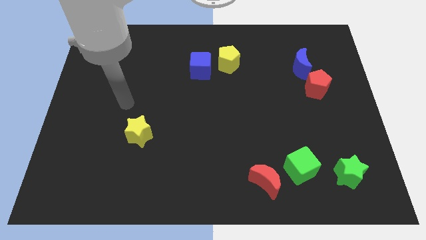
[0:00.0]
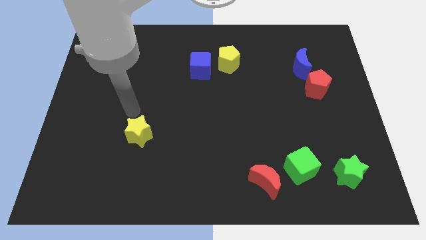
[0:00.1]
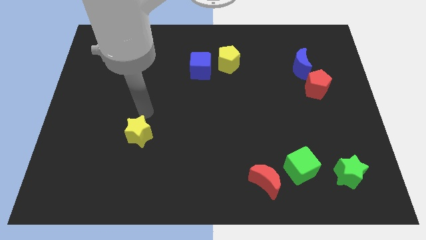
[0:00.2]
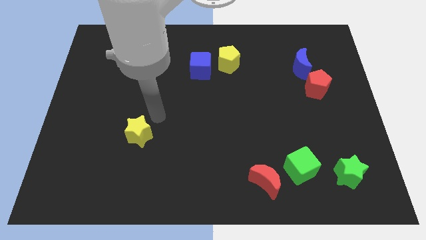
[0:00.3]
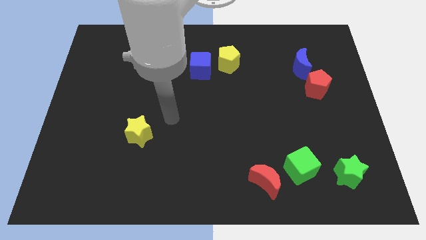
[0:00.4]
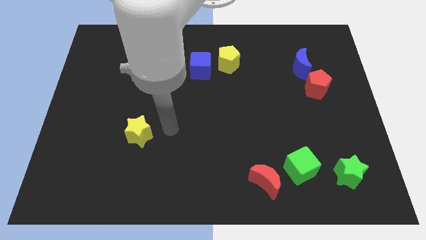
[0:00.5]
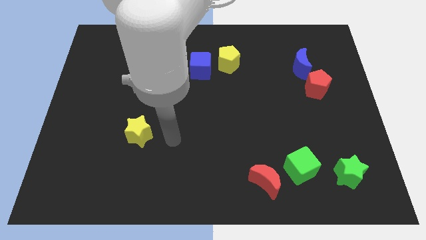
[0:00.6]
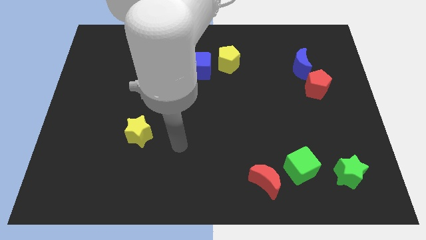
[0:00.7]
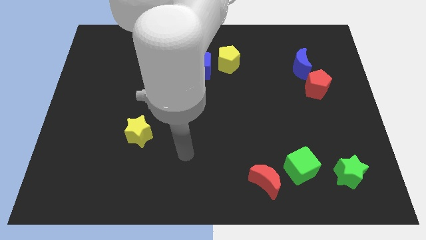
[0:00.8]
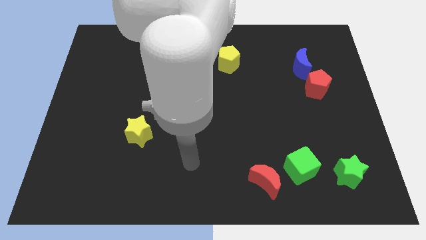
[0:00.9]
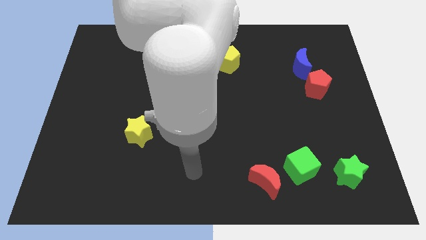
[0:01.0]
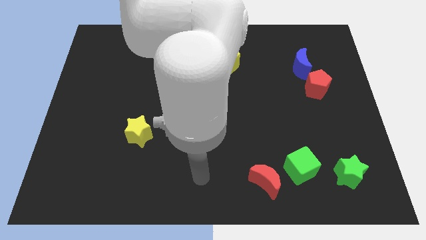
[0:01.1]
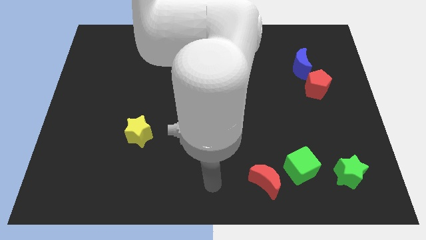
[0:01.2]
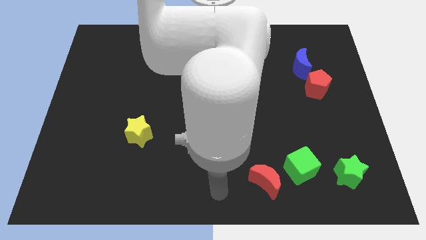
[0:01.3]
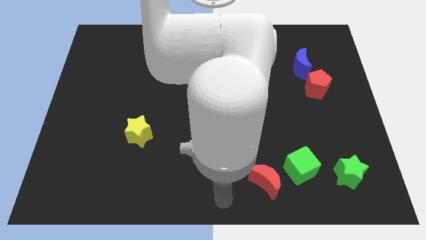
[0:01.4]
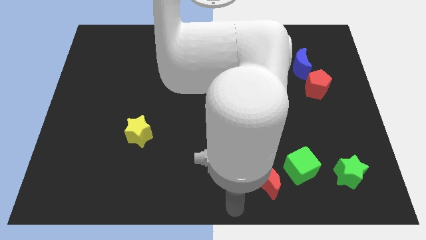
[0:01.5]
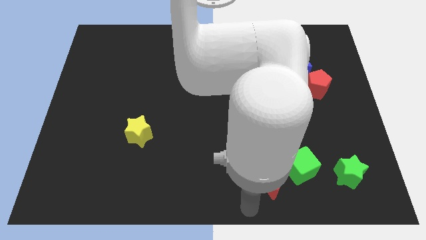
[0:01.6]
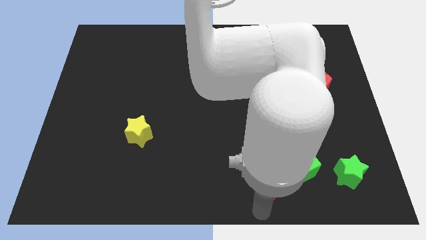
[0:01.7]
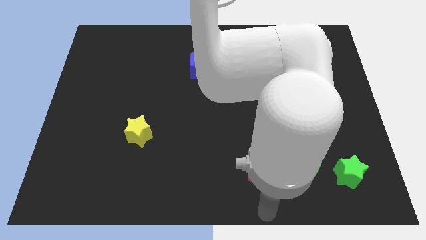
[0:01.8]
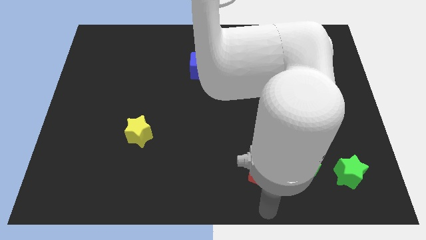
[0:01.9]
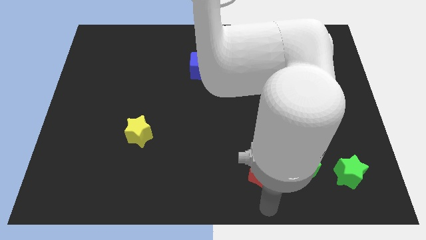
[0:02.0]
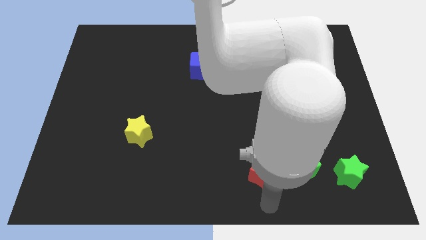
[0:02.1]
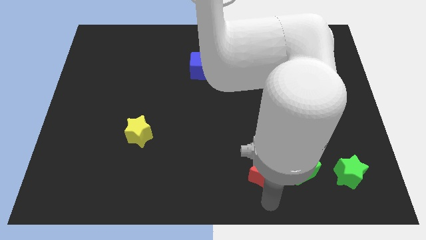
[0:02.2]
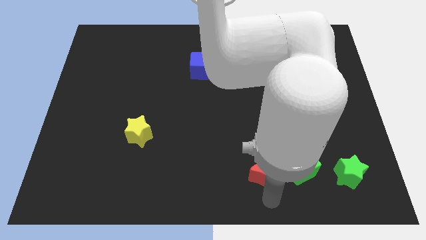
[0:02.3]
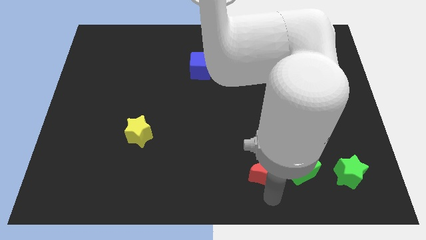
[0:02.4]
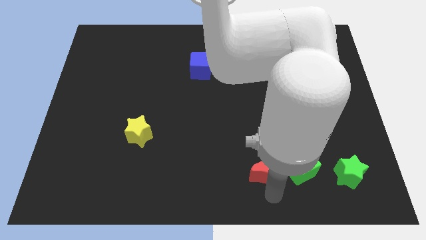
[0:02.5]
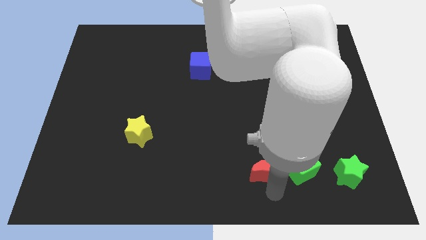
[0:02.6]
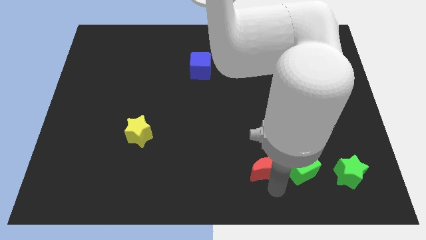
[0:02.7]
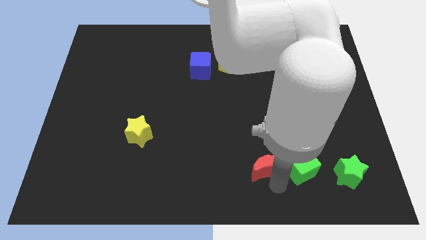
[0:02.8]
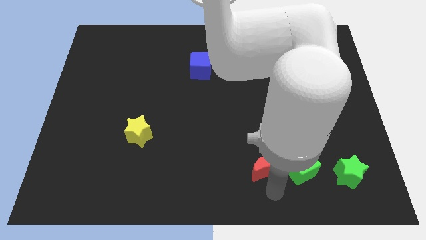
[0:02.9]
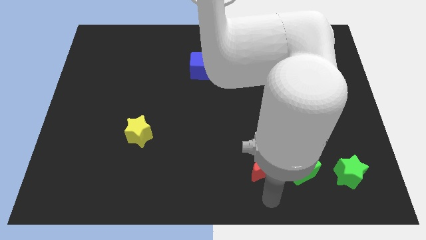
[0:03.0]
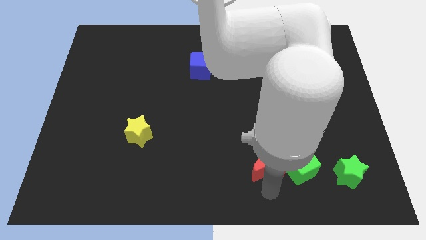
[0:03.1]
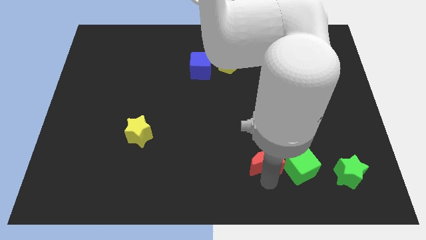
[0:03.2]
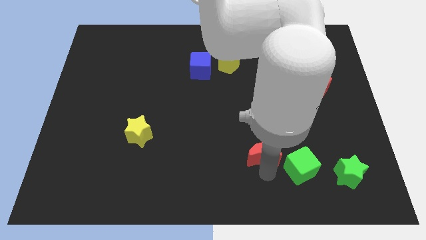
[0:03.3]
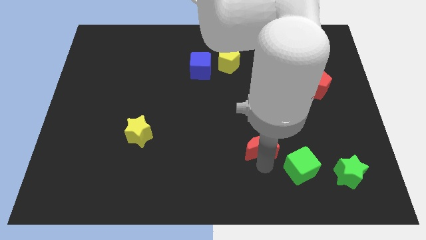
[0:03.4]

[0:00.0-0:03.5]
push the red moon upwards a little bit

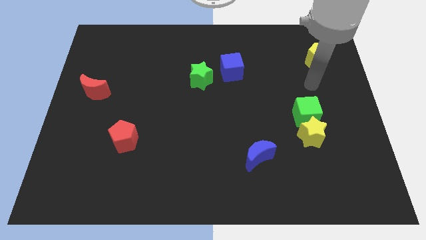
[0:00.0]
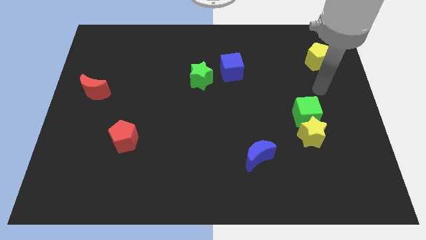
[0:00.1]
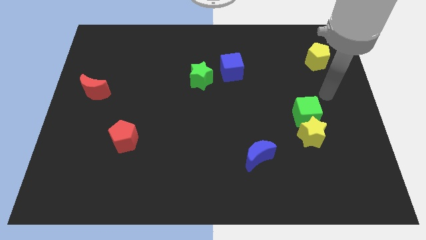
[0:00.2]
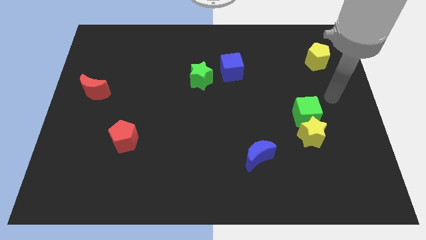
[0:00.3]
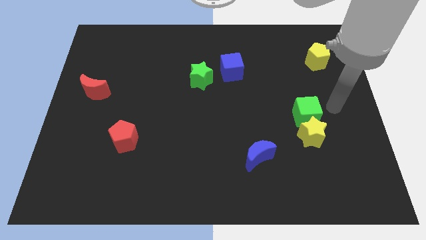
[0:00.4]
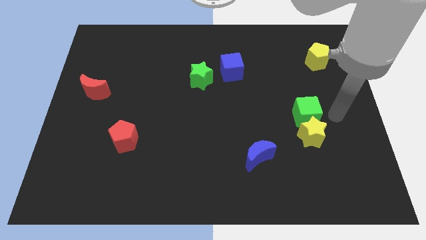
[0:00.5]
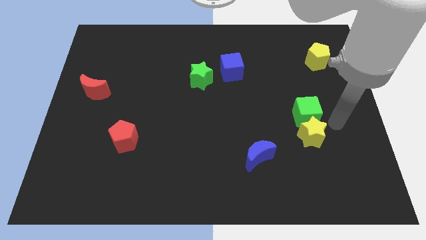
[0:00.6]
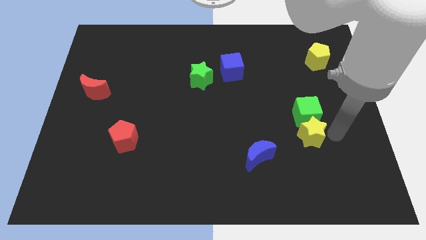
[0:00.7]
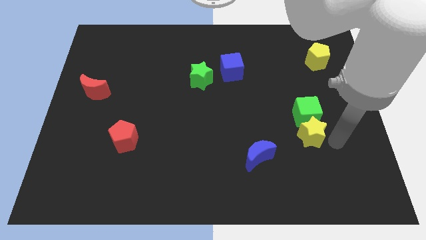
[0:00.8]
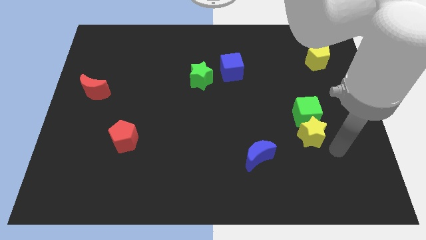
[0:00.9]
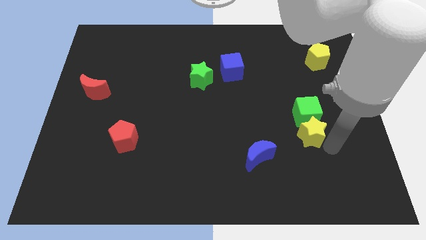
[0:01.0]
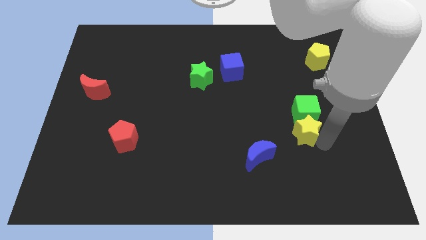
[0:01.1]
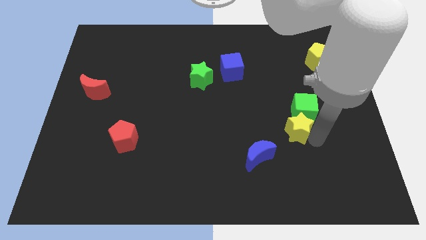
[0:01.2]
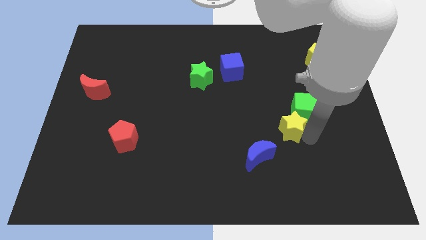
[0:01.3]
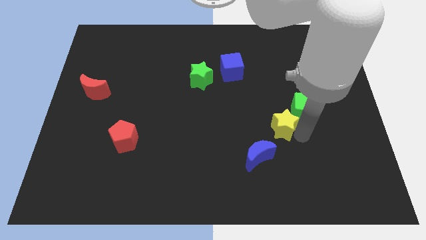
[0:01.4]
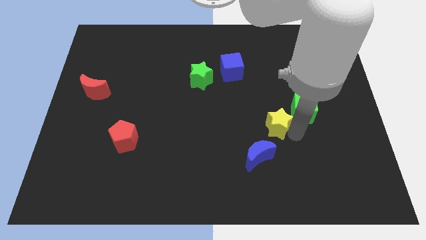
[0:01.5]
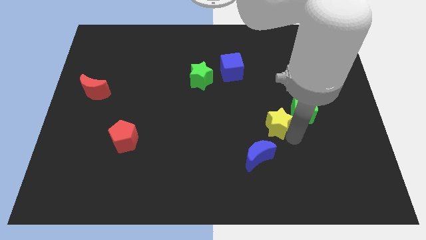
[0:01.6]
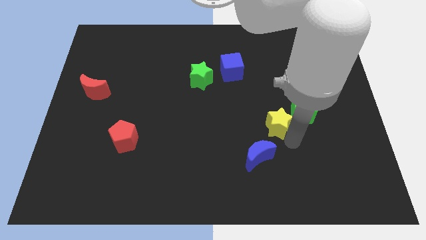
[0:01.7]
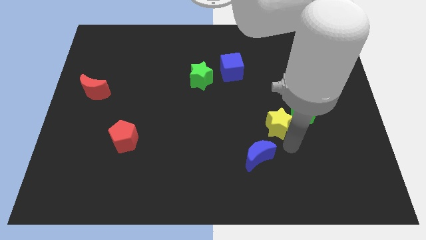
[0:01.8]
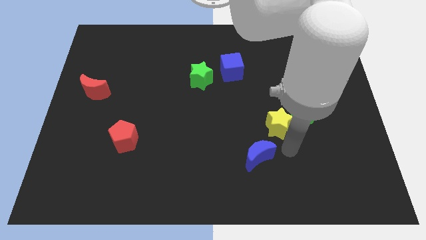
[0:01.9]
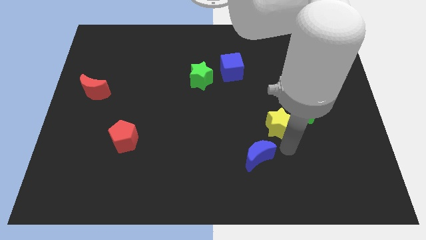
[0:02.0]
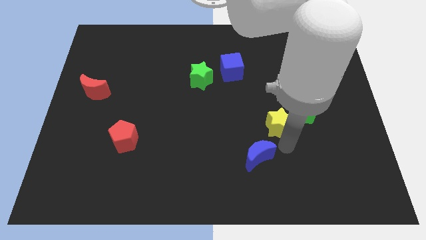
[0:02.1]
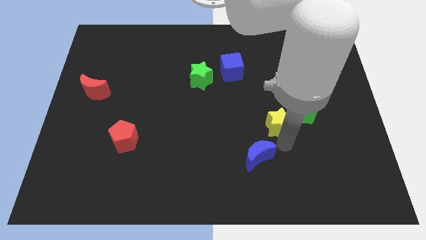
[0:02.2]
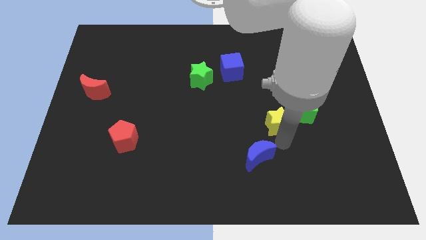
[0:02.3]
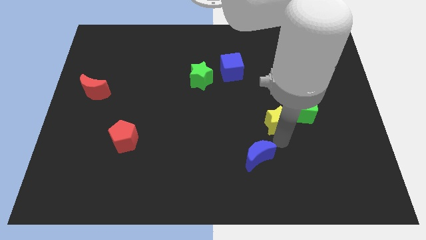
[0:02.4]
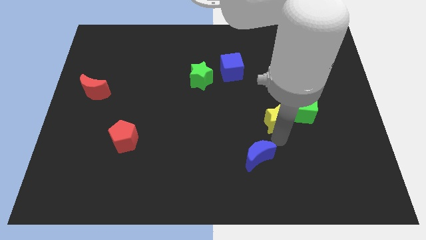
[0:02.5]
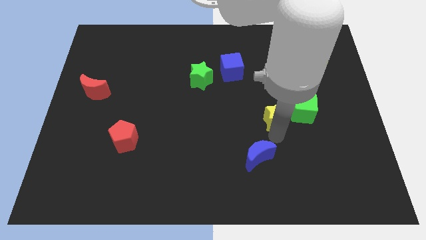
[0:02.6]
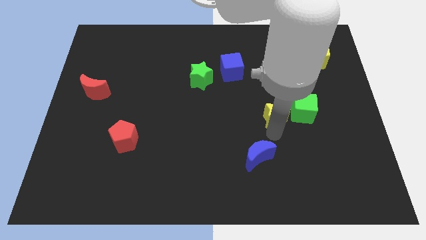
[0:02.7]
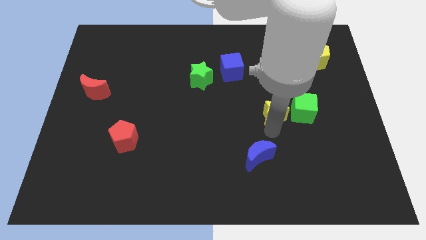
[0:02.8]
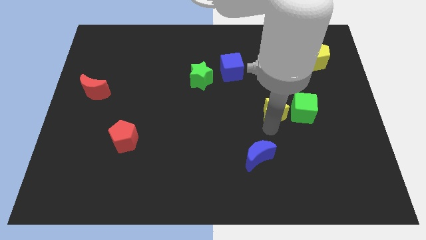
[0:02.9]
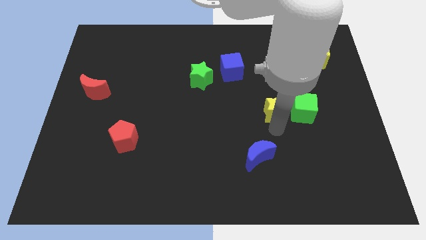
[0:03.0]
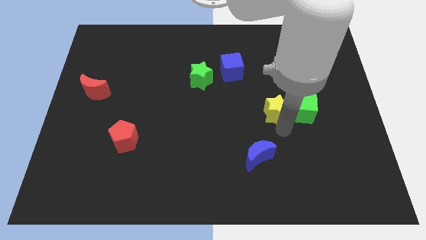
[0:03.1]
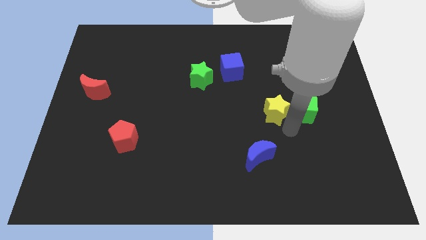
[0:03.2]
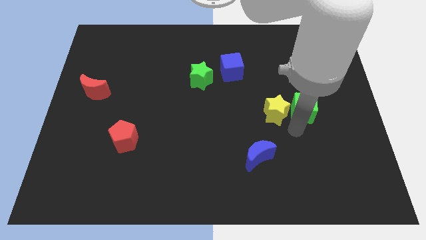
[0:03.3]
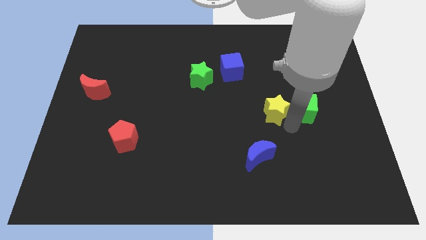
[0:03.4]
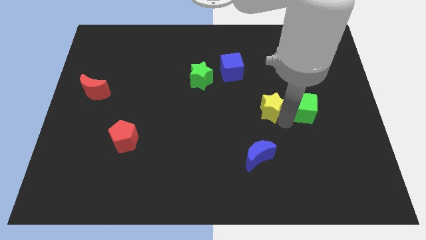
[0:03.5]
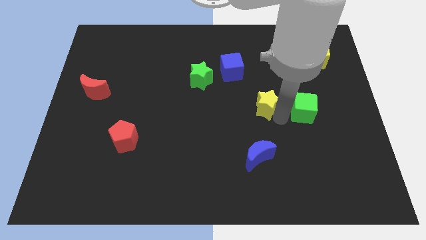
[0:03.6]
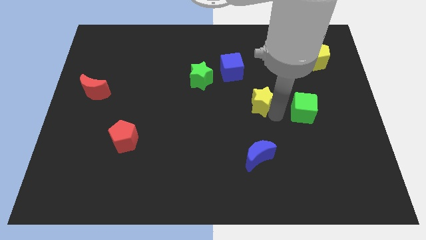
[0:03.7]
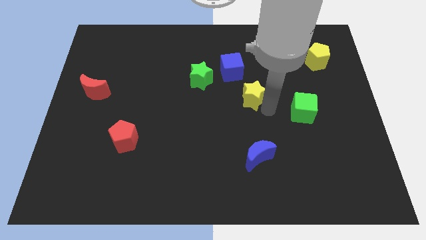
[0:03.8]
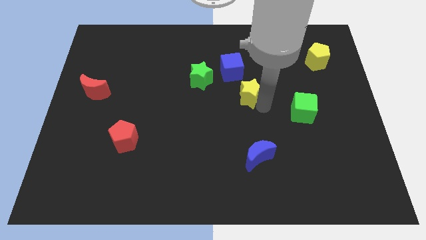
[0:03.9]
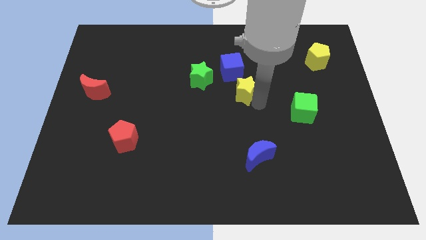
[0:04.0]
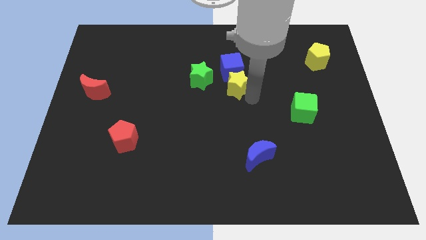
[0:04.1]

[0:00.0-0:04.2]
push the yellow star upwards and then left

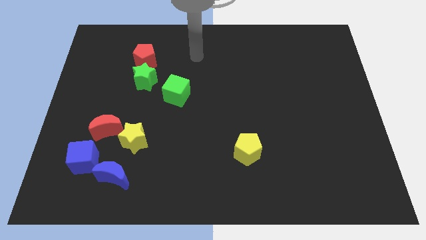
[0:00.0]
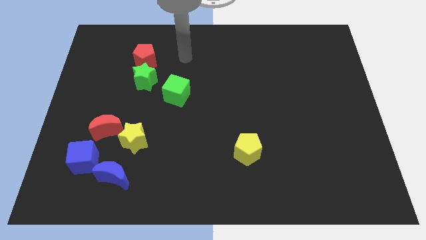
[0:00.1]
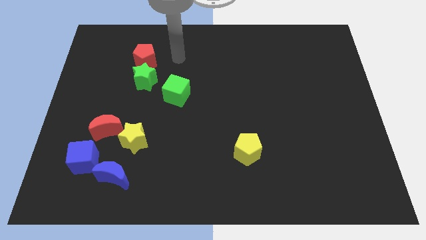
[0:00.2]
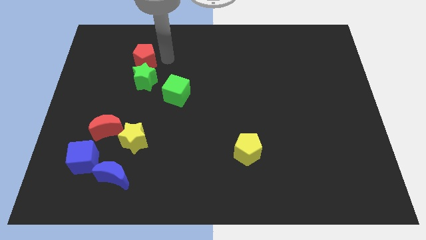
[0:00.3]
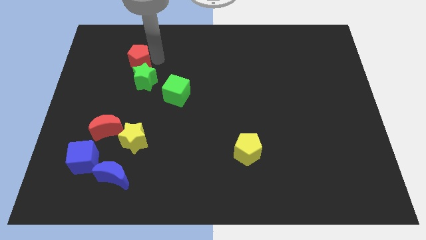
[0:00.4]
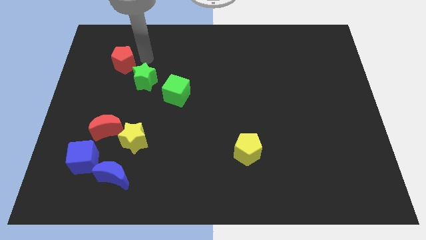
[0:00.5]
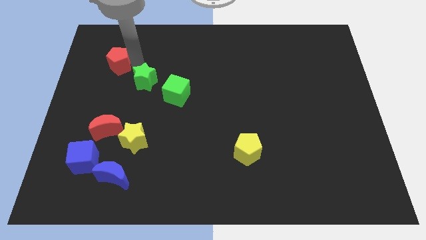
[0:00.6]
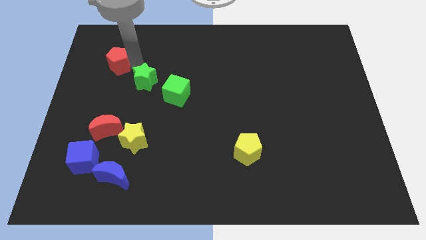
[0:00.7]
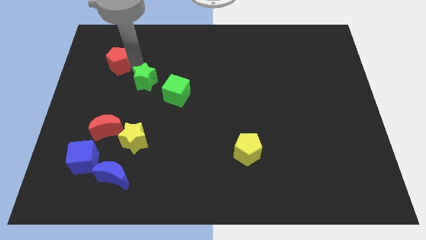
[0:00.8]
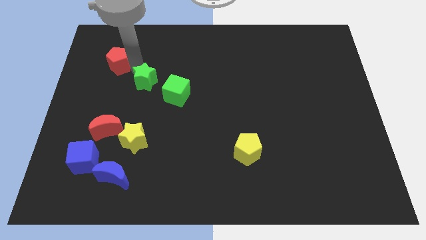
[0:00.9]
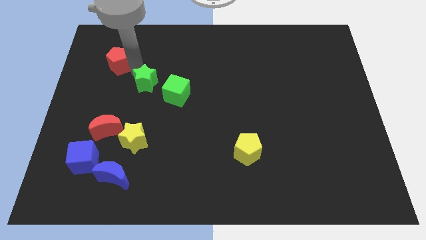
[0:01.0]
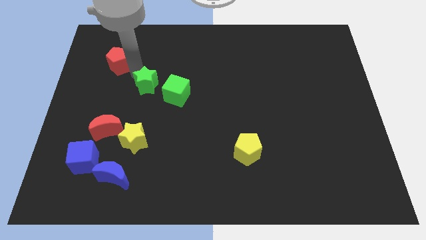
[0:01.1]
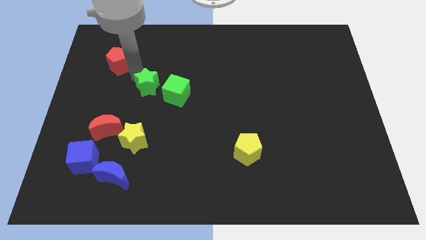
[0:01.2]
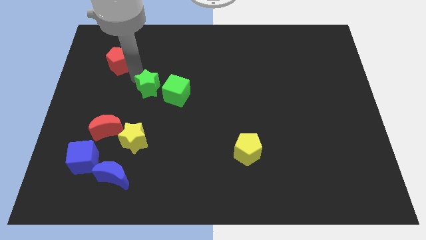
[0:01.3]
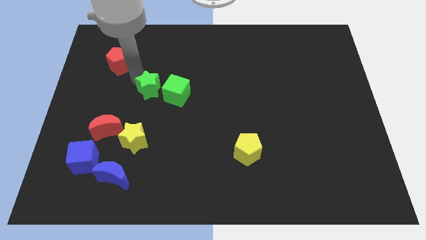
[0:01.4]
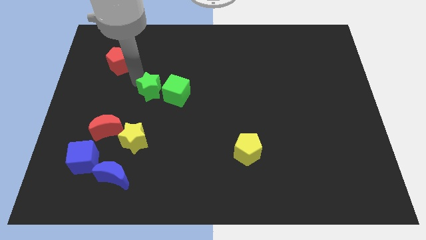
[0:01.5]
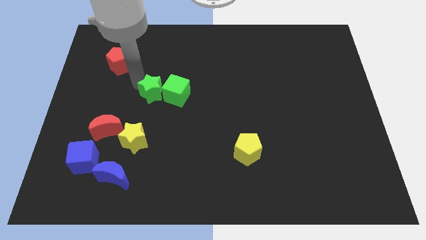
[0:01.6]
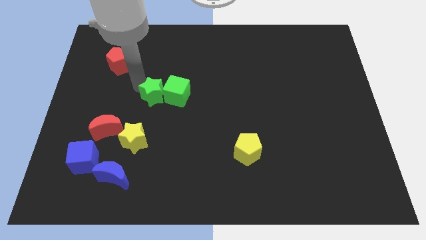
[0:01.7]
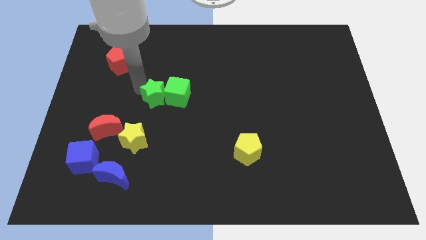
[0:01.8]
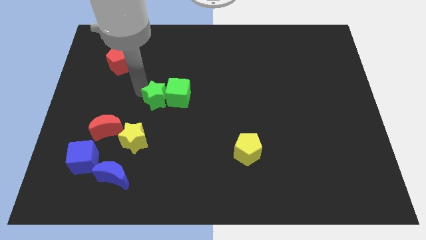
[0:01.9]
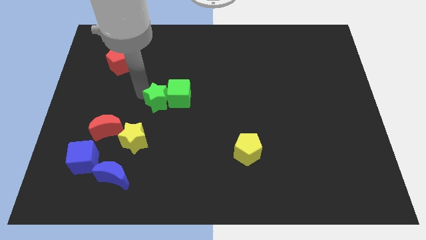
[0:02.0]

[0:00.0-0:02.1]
slightly push the green star diagonally down and to the right
